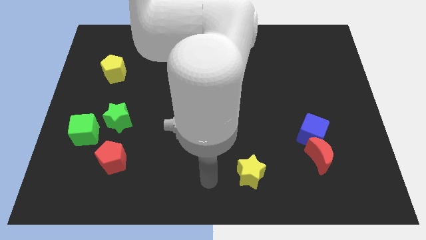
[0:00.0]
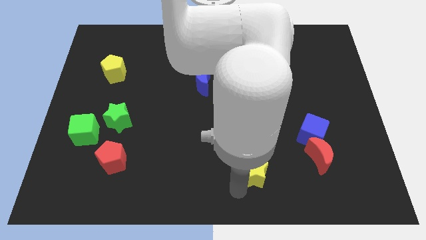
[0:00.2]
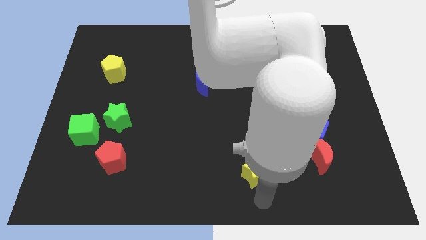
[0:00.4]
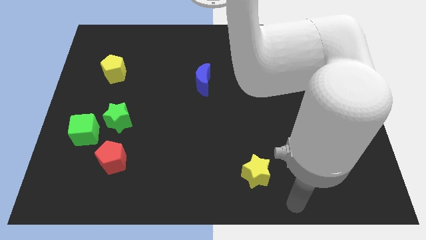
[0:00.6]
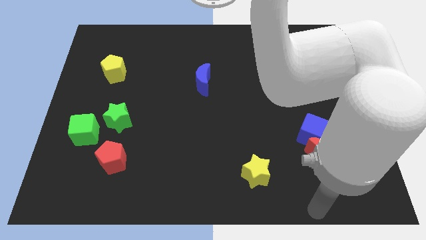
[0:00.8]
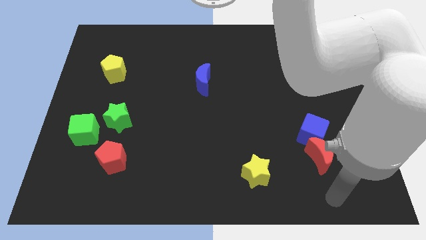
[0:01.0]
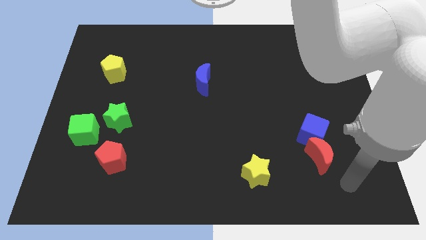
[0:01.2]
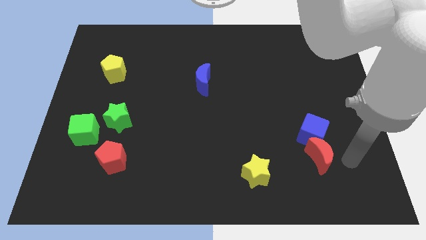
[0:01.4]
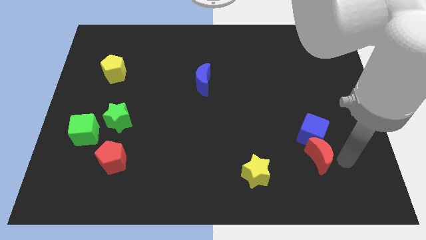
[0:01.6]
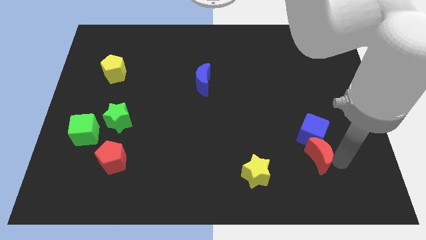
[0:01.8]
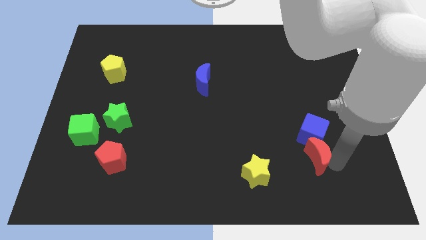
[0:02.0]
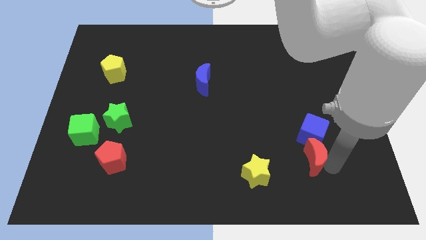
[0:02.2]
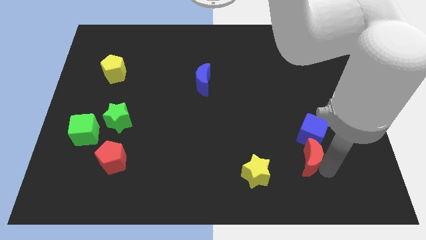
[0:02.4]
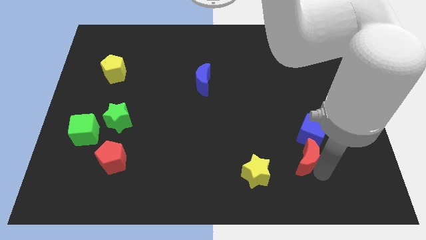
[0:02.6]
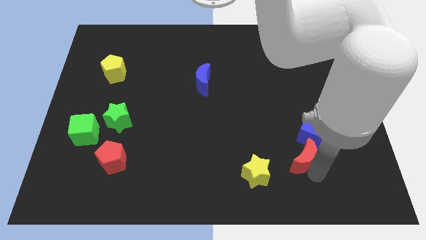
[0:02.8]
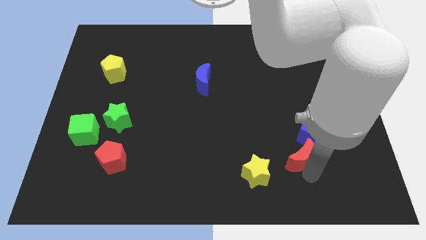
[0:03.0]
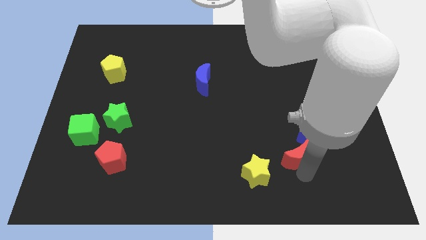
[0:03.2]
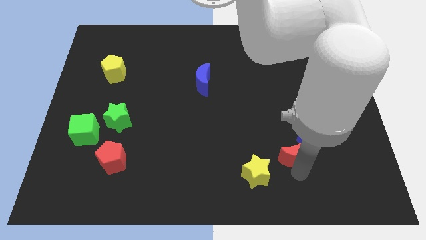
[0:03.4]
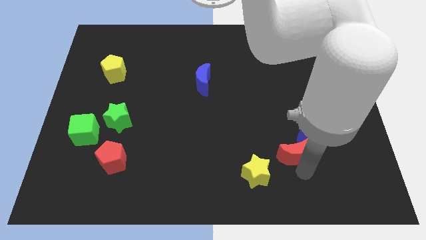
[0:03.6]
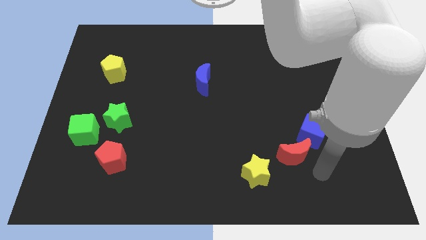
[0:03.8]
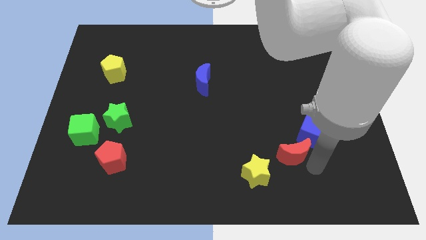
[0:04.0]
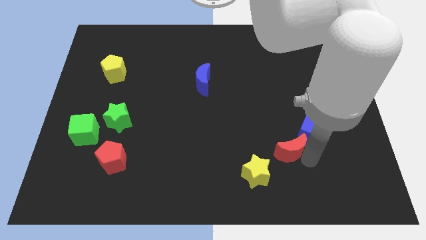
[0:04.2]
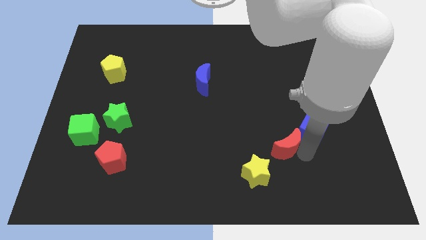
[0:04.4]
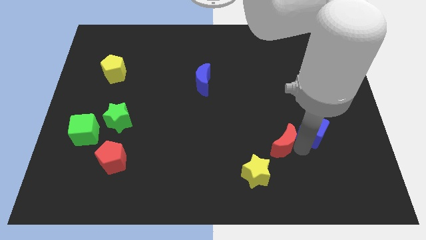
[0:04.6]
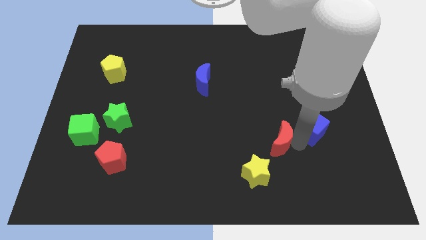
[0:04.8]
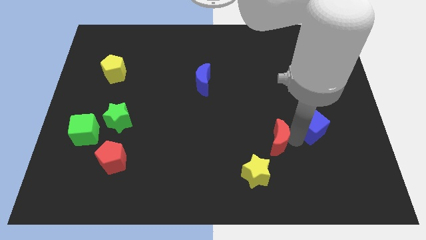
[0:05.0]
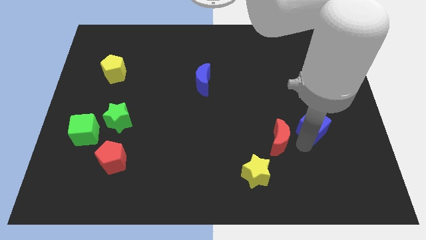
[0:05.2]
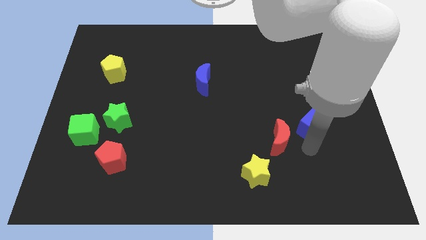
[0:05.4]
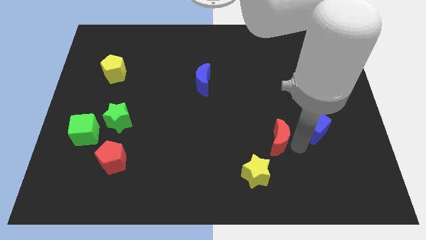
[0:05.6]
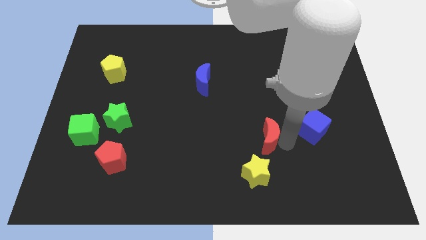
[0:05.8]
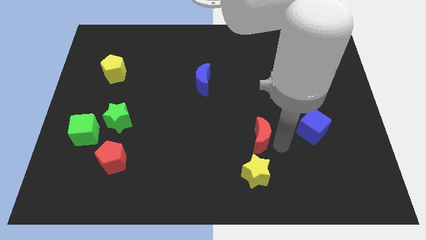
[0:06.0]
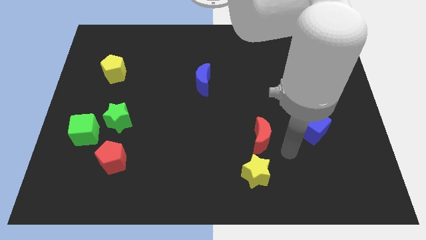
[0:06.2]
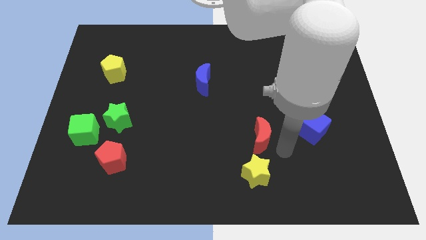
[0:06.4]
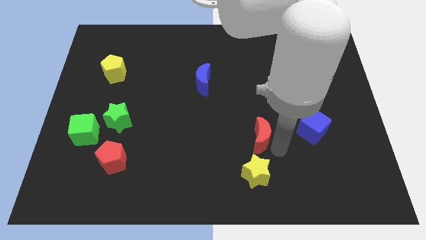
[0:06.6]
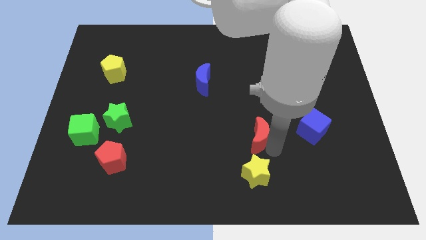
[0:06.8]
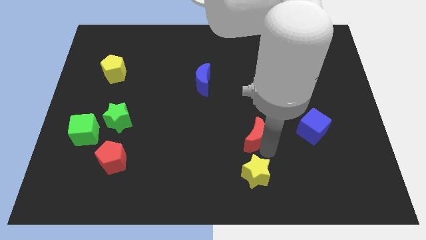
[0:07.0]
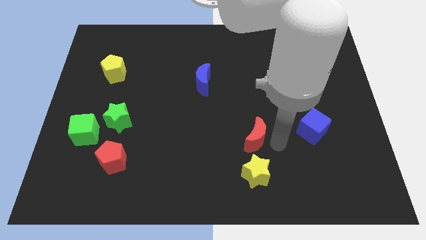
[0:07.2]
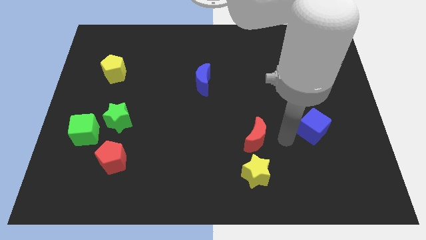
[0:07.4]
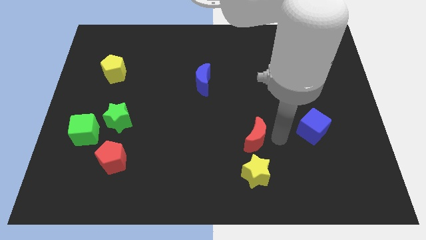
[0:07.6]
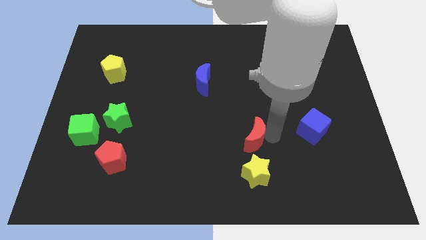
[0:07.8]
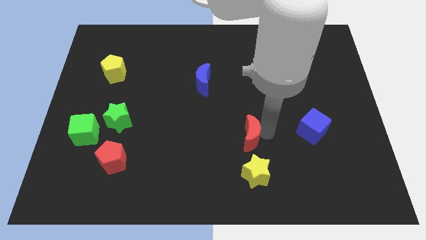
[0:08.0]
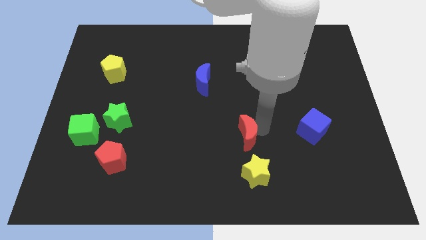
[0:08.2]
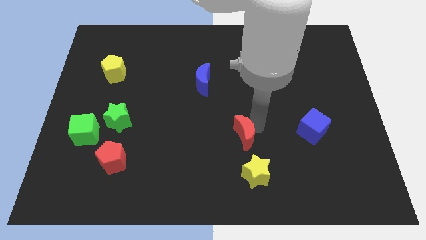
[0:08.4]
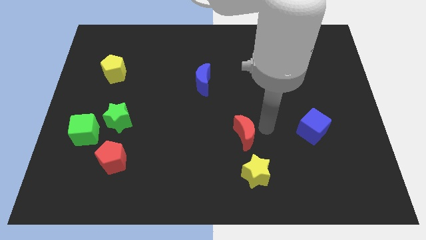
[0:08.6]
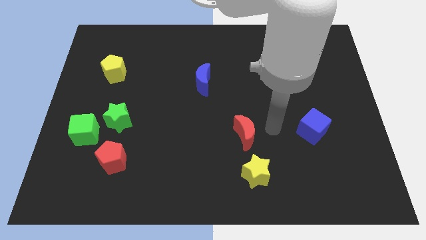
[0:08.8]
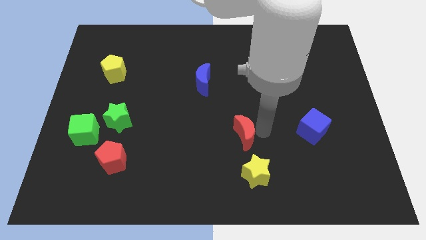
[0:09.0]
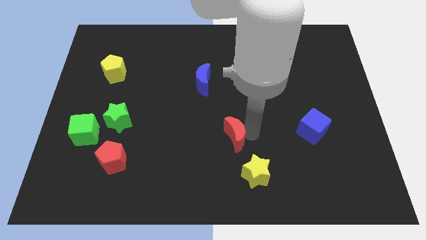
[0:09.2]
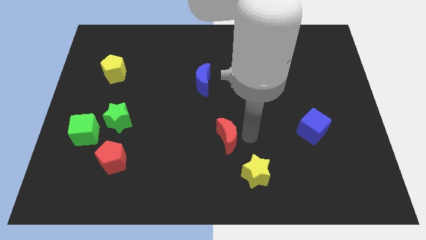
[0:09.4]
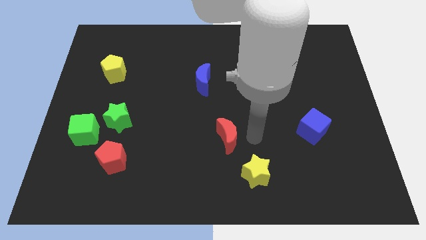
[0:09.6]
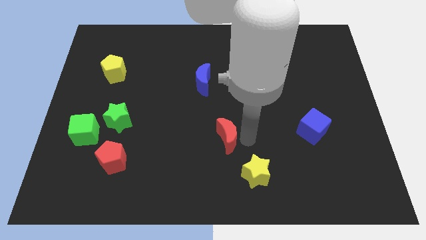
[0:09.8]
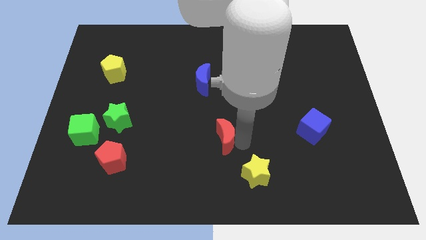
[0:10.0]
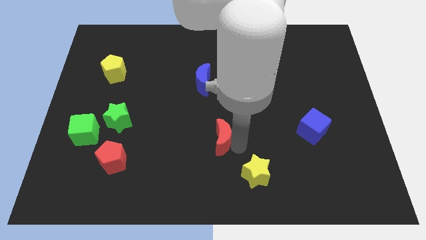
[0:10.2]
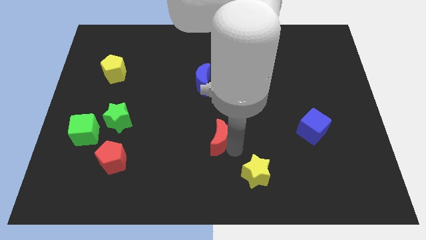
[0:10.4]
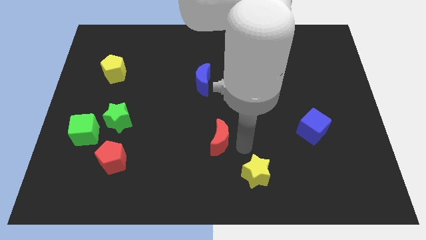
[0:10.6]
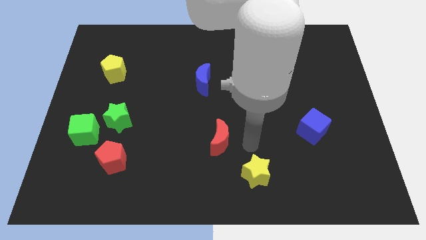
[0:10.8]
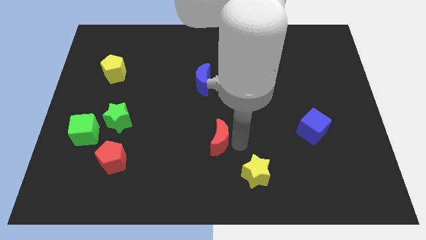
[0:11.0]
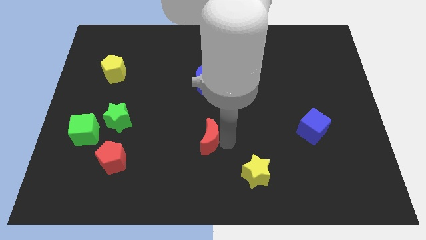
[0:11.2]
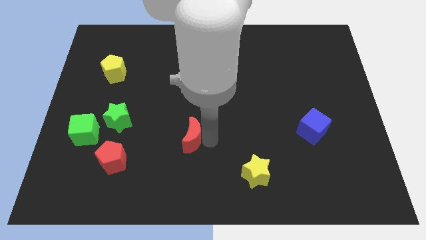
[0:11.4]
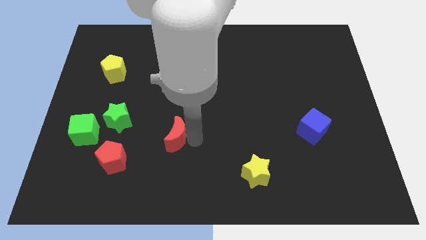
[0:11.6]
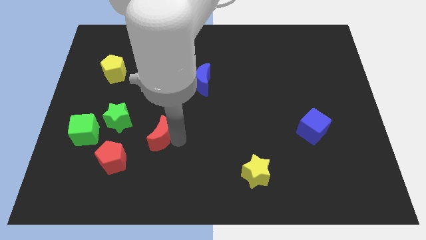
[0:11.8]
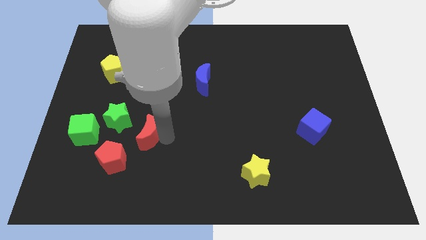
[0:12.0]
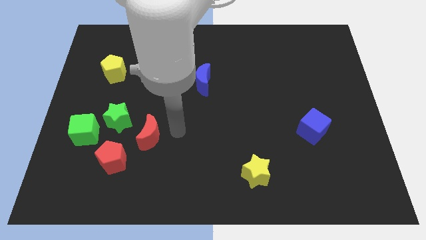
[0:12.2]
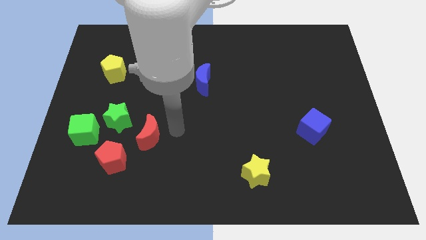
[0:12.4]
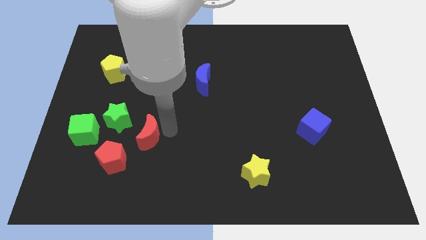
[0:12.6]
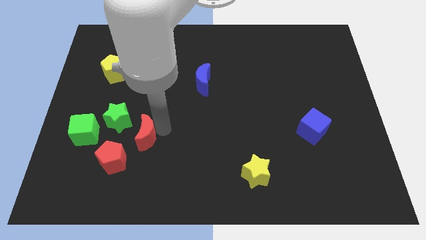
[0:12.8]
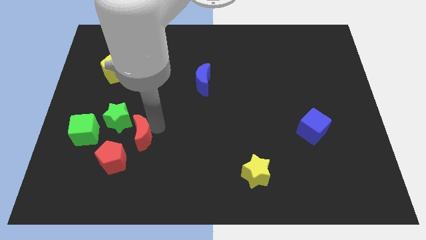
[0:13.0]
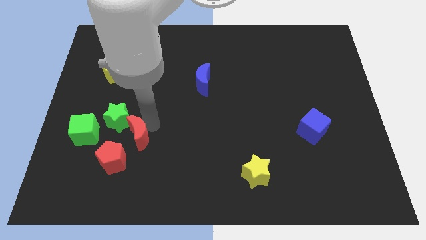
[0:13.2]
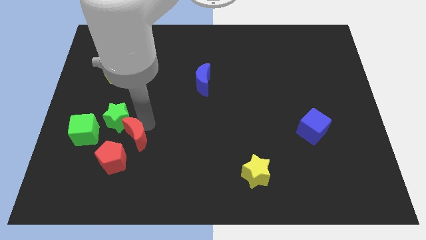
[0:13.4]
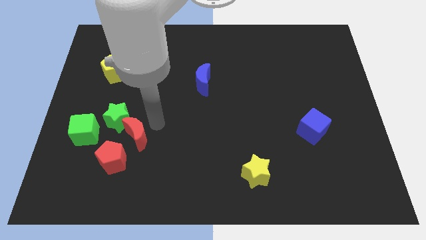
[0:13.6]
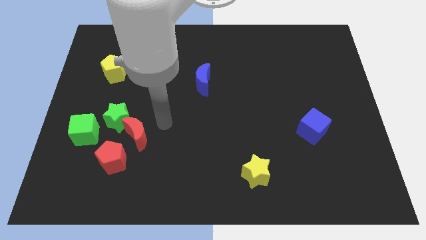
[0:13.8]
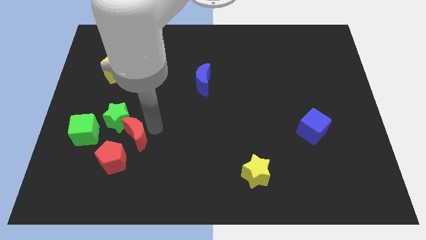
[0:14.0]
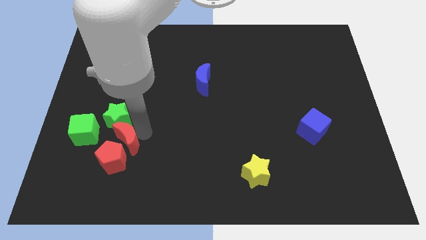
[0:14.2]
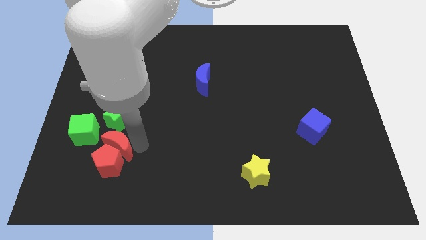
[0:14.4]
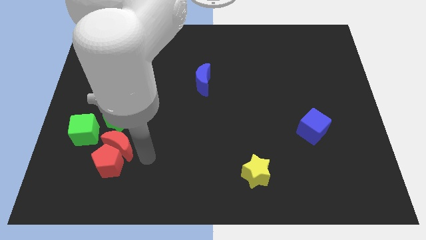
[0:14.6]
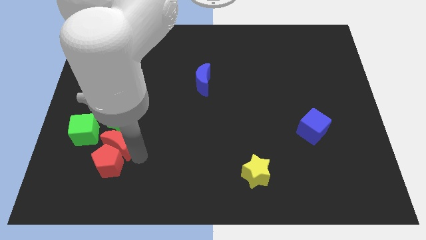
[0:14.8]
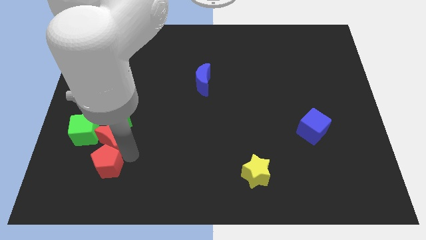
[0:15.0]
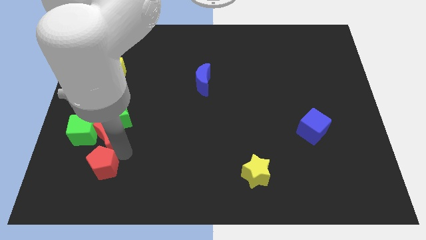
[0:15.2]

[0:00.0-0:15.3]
put the red moon to the green cube
